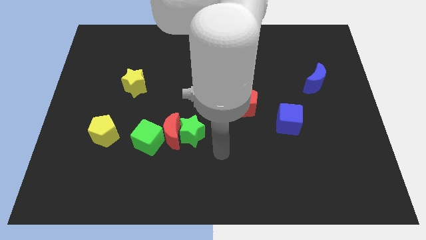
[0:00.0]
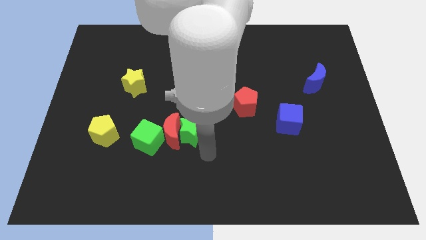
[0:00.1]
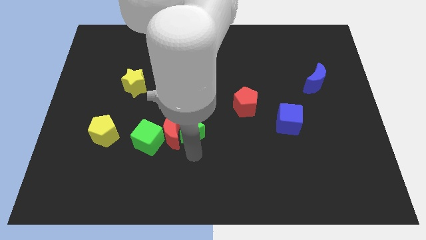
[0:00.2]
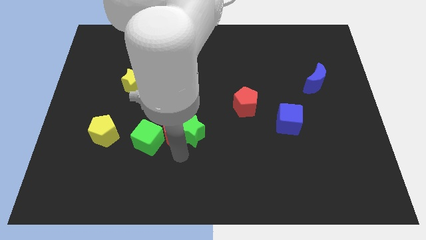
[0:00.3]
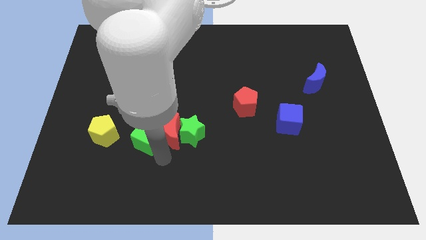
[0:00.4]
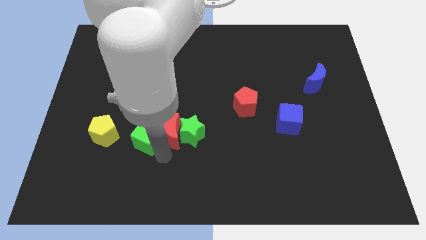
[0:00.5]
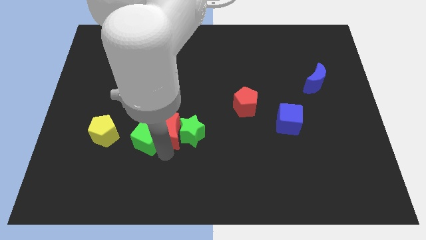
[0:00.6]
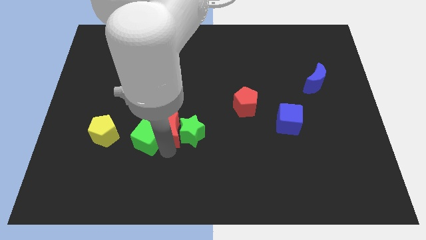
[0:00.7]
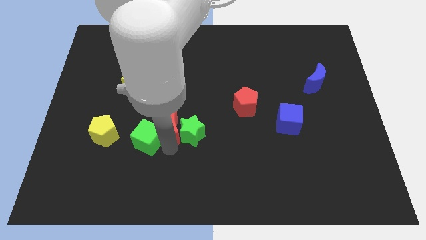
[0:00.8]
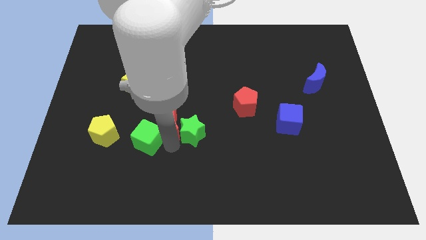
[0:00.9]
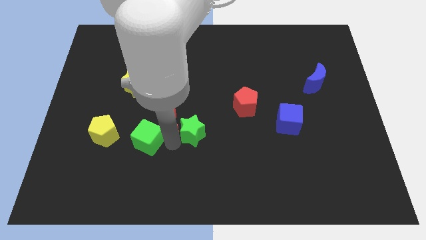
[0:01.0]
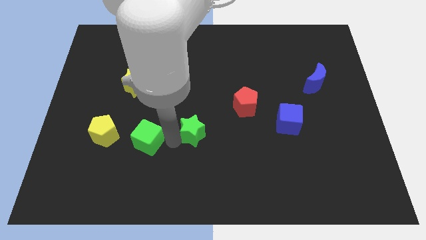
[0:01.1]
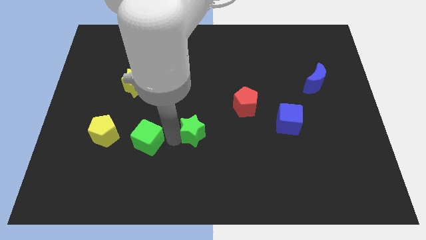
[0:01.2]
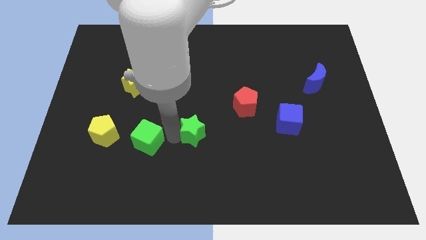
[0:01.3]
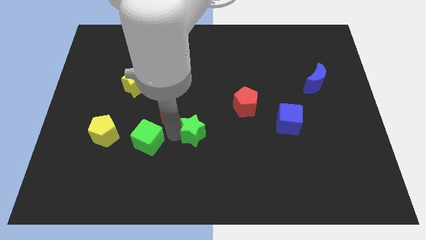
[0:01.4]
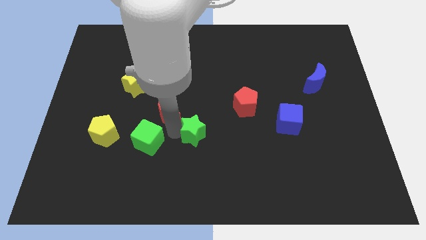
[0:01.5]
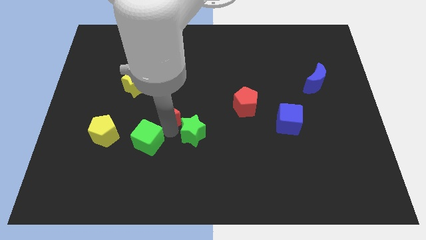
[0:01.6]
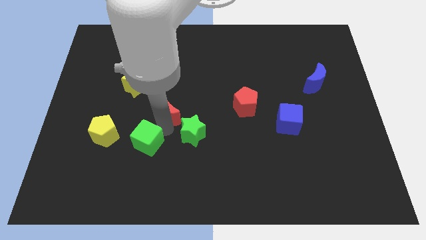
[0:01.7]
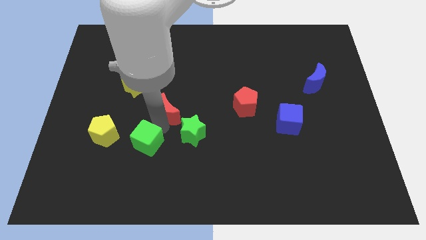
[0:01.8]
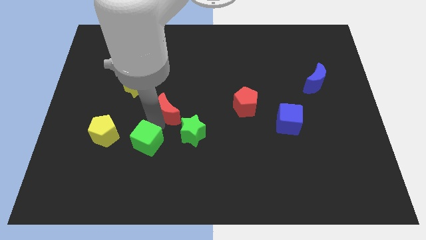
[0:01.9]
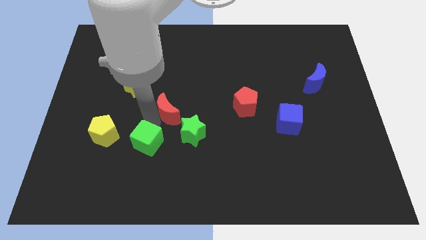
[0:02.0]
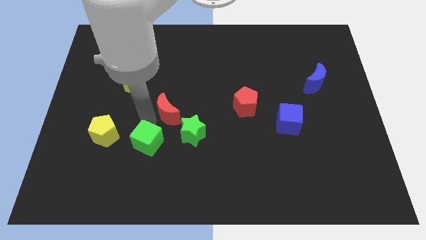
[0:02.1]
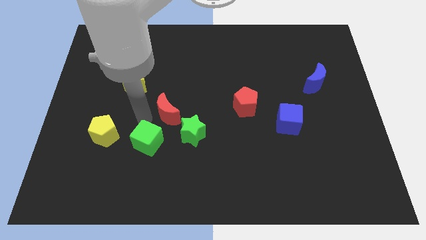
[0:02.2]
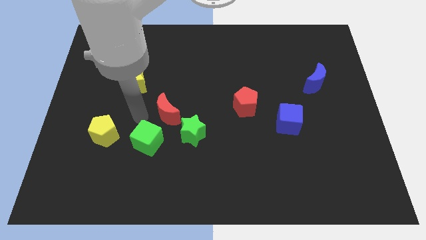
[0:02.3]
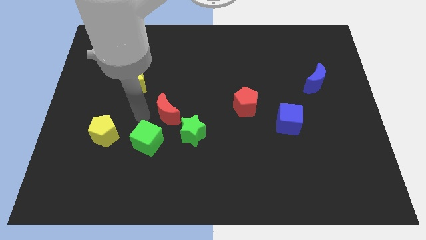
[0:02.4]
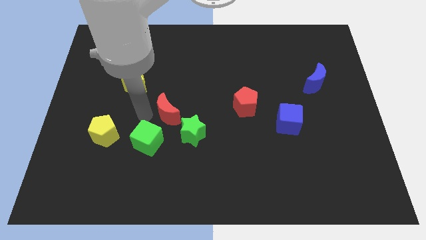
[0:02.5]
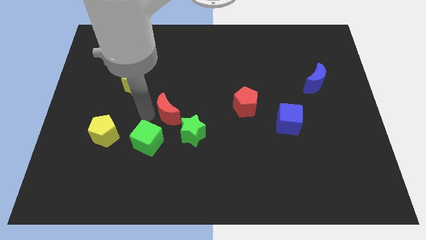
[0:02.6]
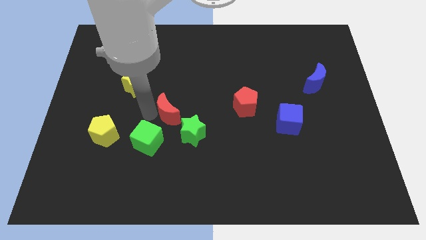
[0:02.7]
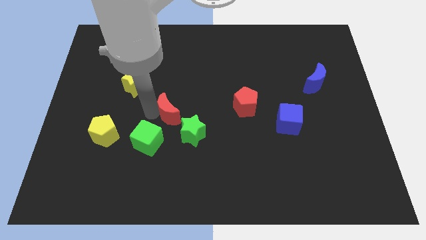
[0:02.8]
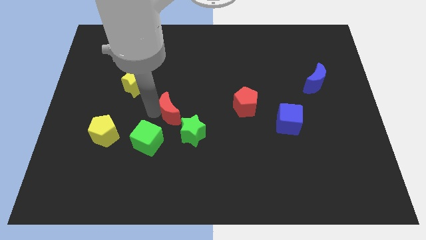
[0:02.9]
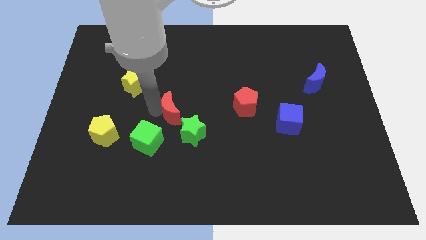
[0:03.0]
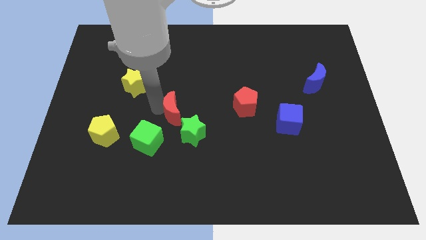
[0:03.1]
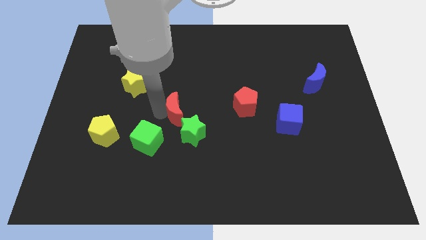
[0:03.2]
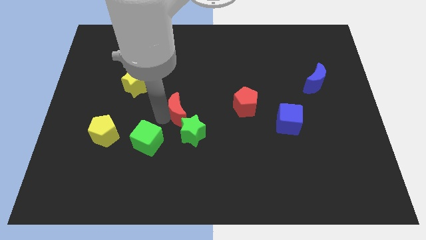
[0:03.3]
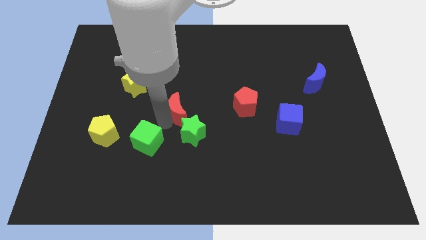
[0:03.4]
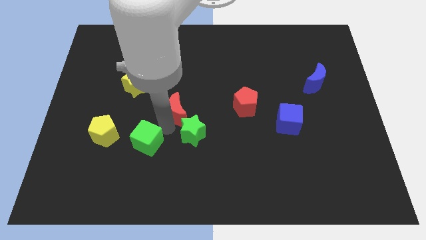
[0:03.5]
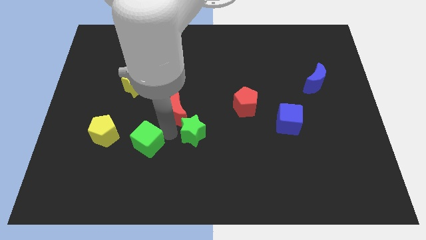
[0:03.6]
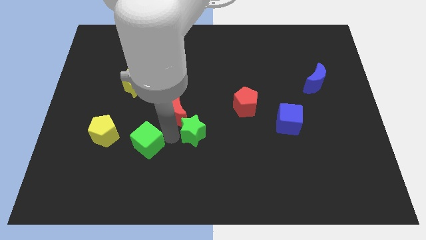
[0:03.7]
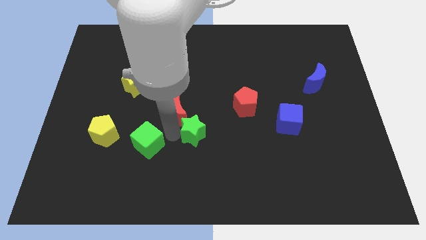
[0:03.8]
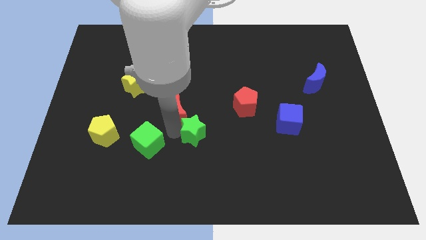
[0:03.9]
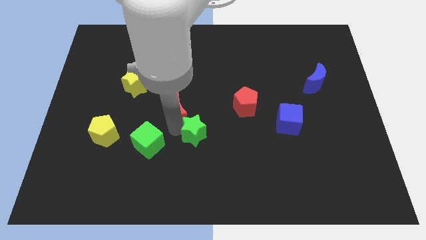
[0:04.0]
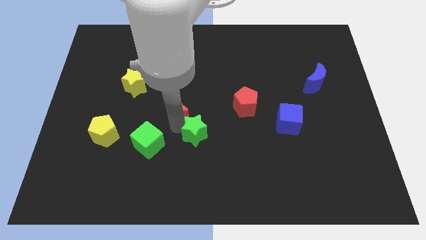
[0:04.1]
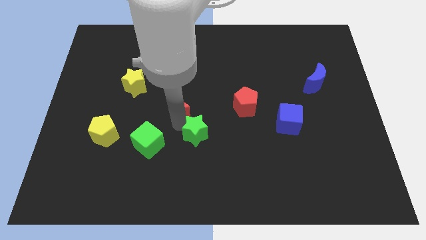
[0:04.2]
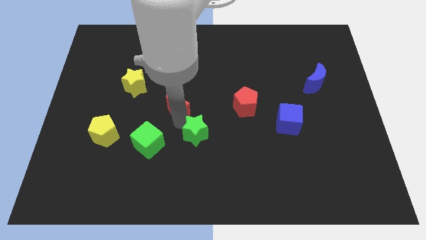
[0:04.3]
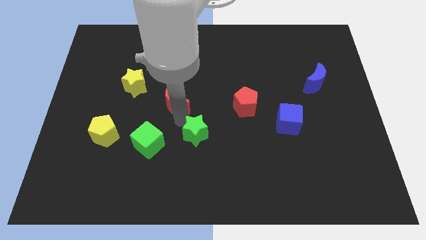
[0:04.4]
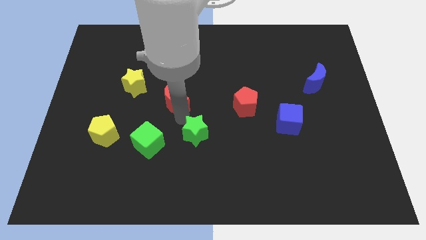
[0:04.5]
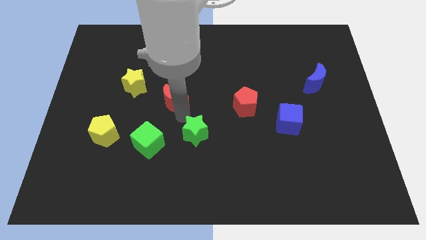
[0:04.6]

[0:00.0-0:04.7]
separate the red moon from the green star and green cube

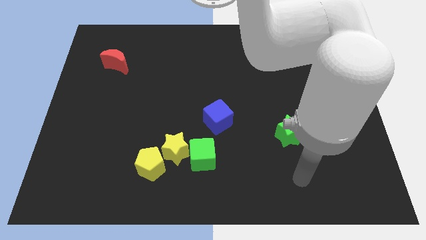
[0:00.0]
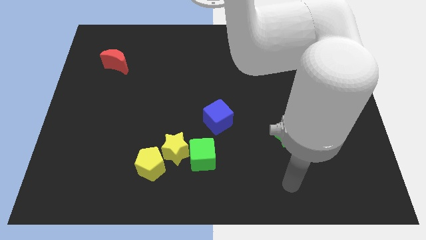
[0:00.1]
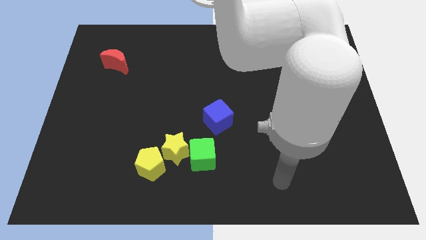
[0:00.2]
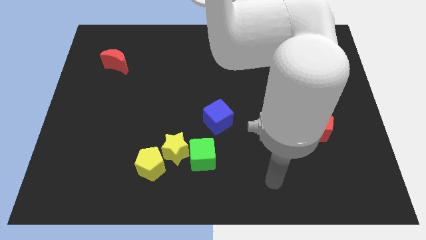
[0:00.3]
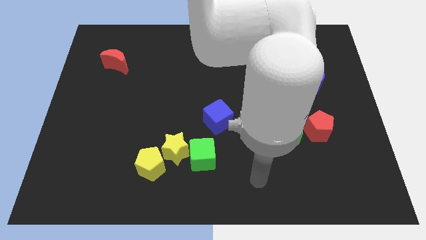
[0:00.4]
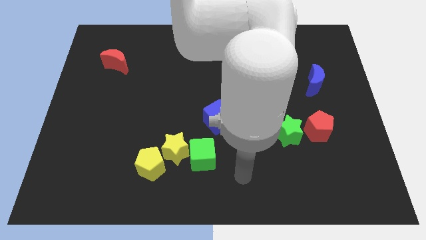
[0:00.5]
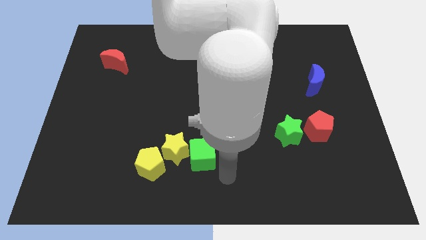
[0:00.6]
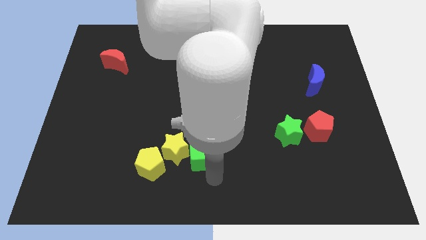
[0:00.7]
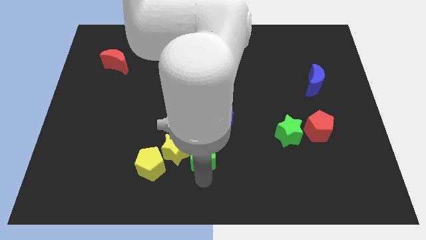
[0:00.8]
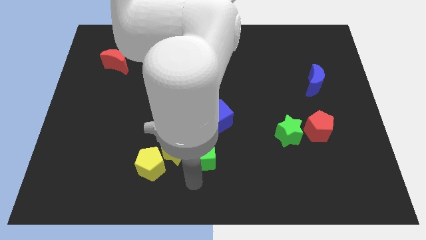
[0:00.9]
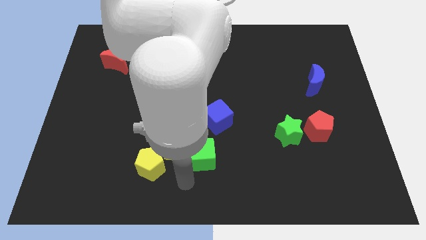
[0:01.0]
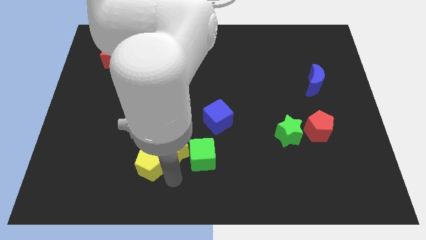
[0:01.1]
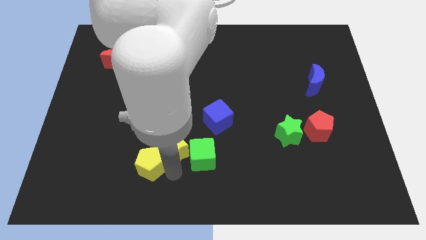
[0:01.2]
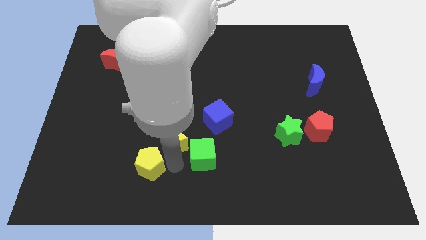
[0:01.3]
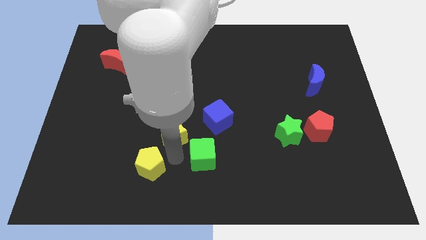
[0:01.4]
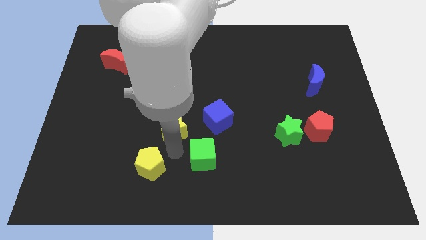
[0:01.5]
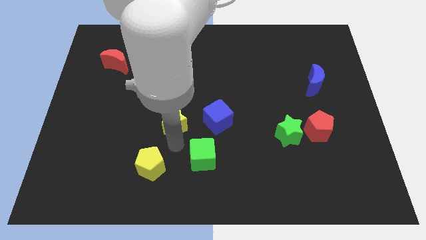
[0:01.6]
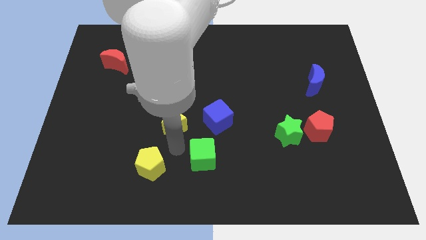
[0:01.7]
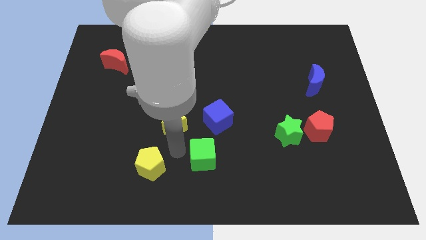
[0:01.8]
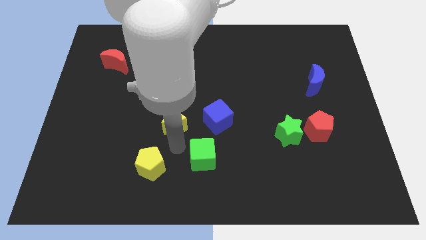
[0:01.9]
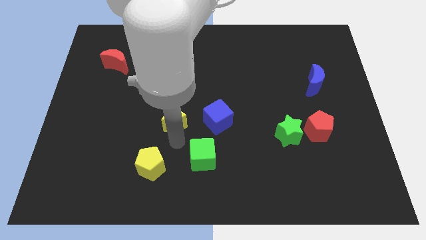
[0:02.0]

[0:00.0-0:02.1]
separate the yellow star from the green cube and yellow pentagon

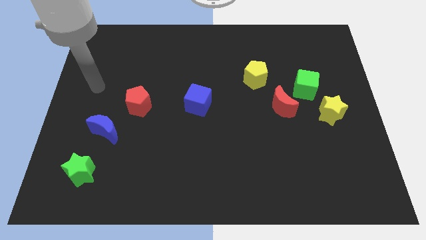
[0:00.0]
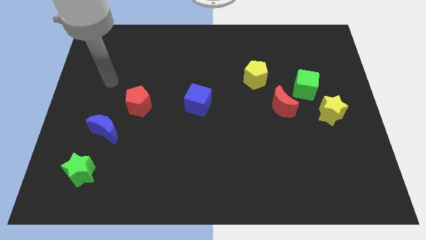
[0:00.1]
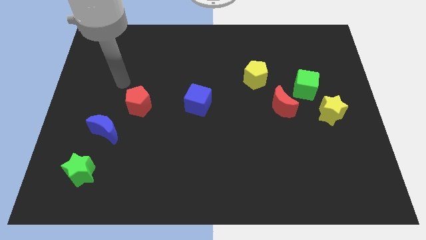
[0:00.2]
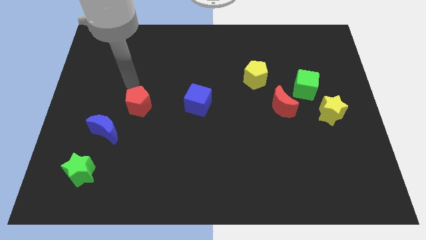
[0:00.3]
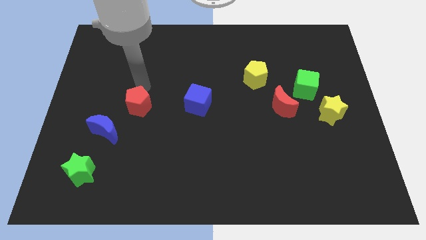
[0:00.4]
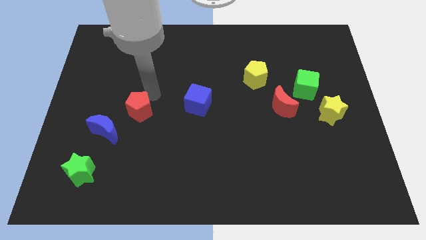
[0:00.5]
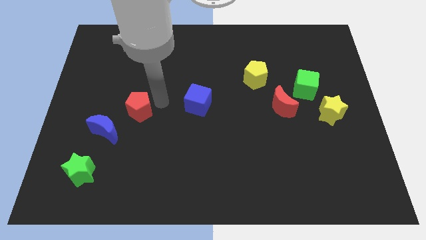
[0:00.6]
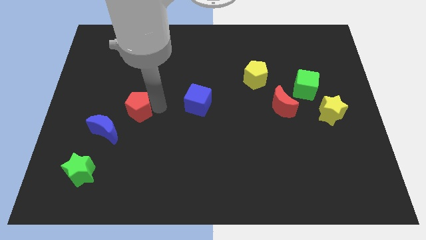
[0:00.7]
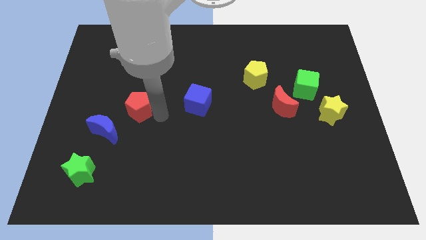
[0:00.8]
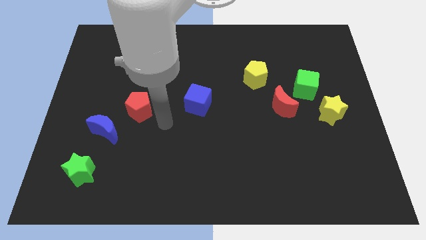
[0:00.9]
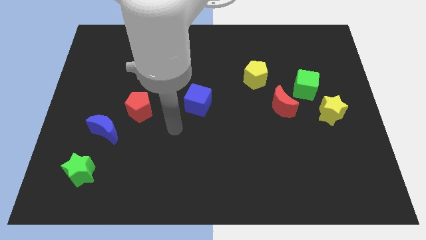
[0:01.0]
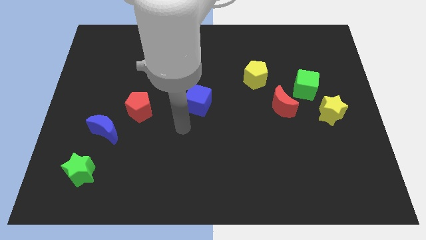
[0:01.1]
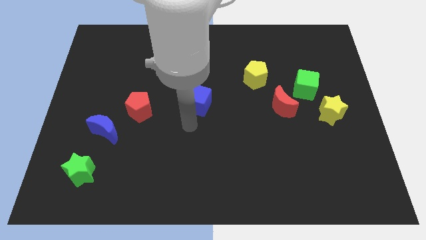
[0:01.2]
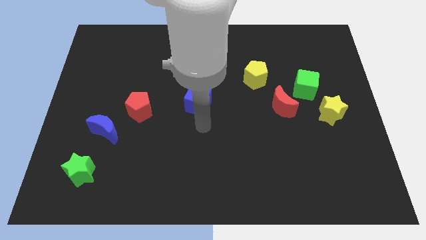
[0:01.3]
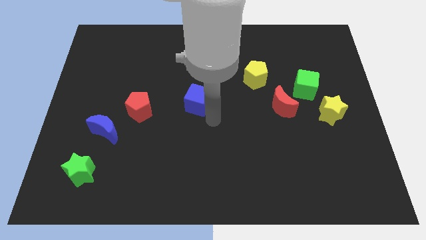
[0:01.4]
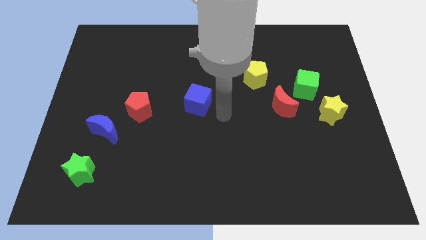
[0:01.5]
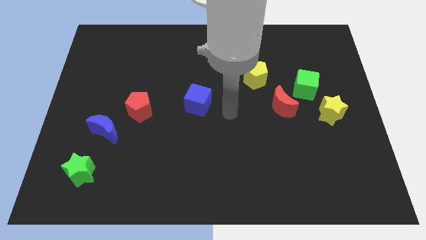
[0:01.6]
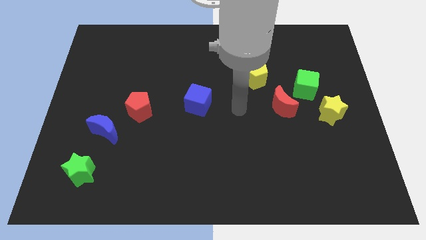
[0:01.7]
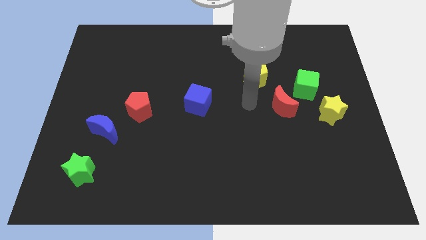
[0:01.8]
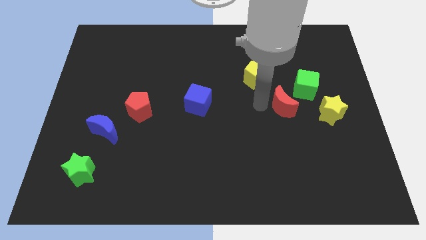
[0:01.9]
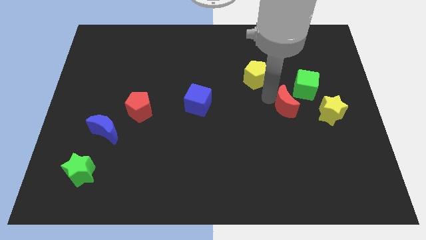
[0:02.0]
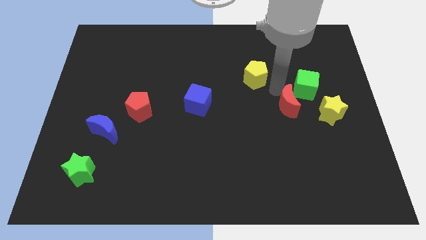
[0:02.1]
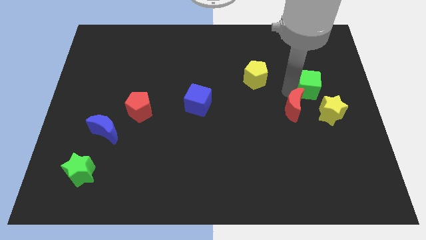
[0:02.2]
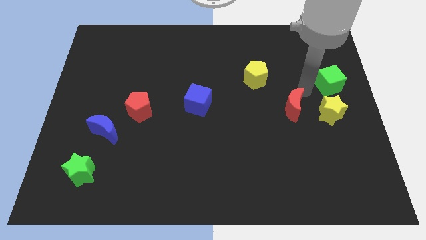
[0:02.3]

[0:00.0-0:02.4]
move the red moon away from the green cube

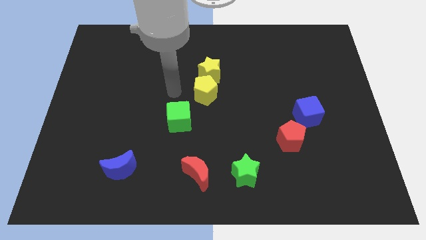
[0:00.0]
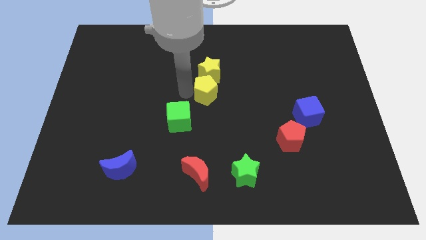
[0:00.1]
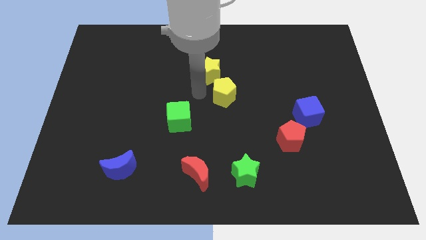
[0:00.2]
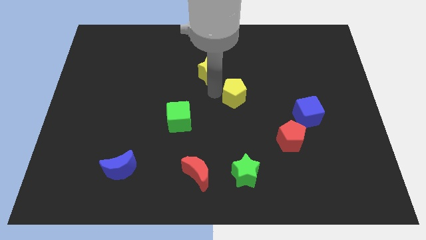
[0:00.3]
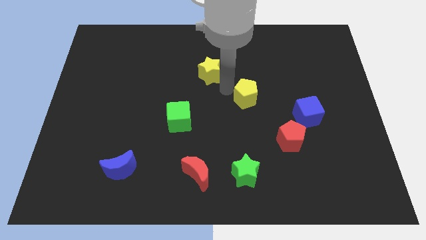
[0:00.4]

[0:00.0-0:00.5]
pull the yellow star apart from the yellow pentagon
